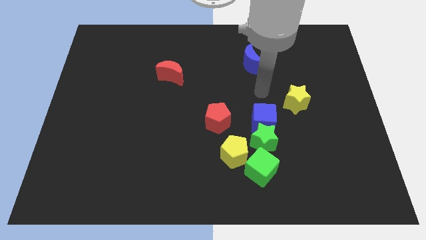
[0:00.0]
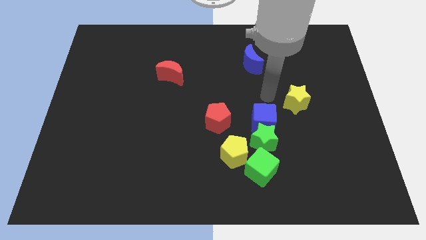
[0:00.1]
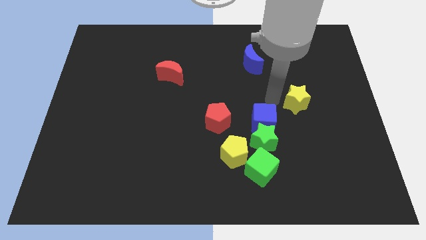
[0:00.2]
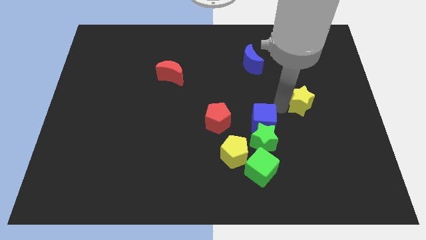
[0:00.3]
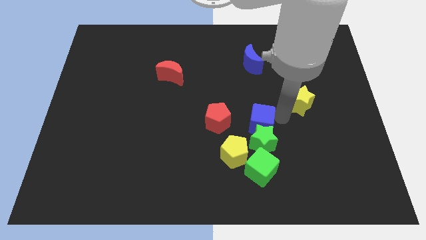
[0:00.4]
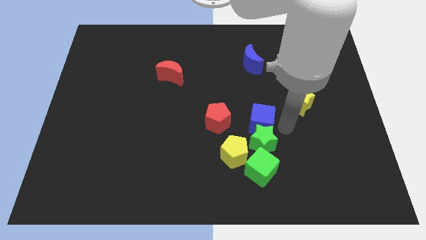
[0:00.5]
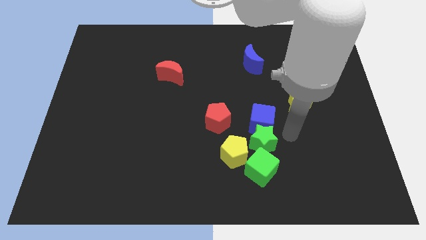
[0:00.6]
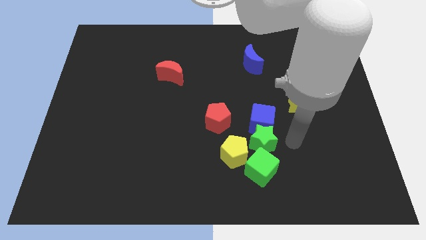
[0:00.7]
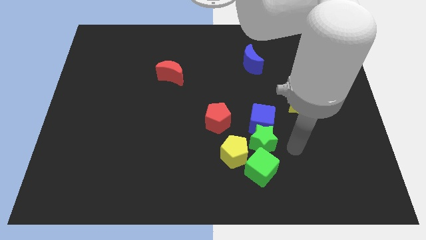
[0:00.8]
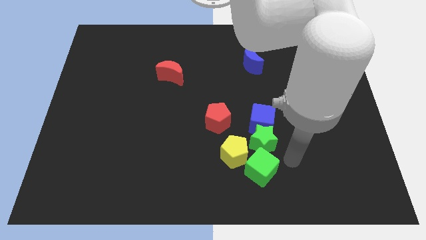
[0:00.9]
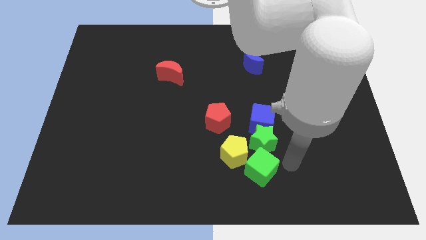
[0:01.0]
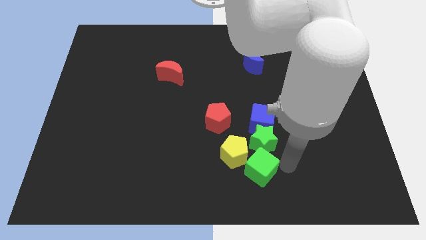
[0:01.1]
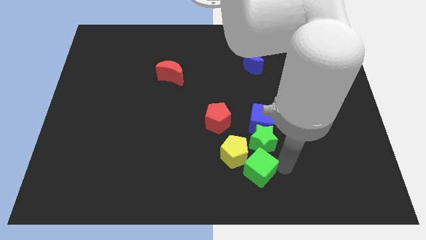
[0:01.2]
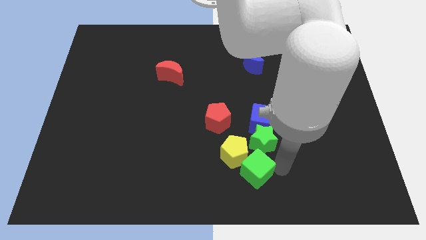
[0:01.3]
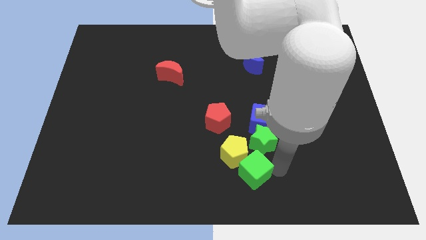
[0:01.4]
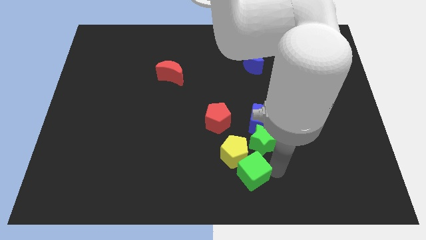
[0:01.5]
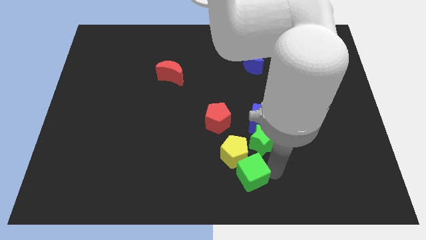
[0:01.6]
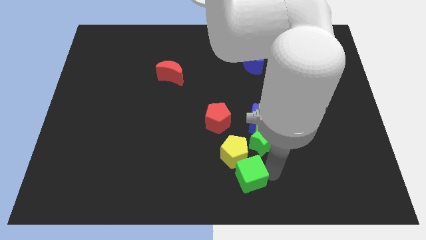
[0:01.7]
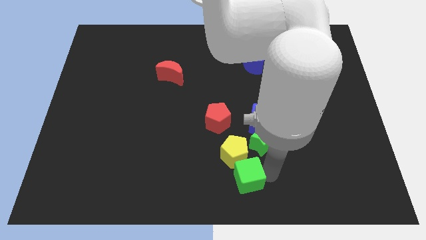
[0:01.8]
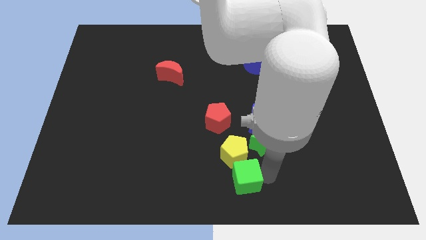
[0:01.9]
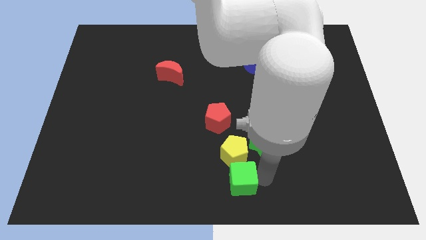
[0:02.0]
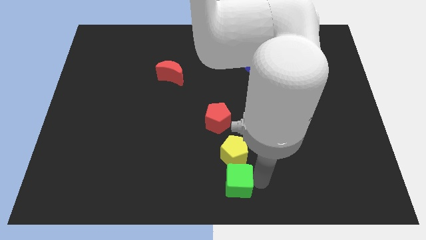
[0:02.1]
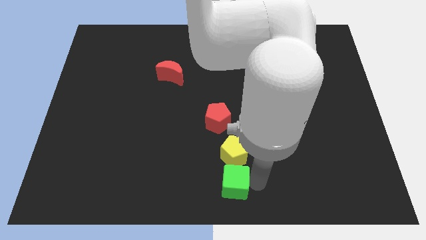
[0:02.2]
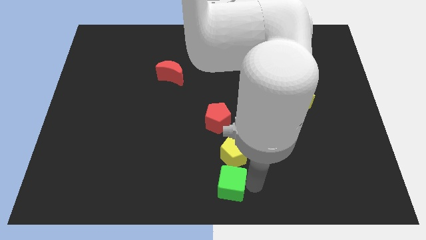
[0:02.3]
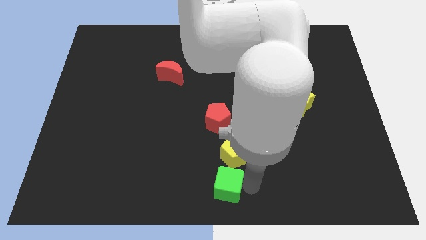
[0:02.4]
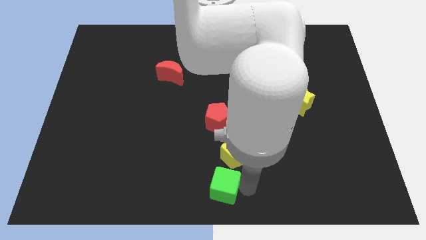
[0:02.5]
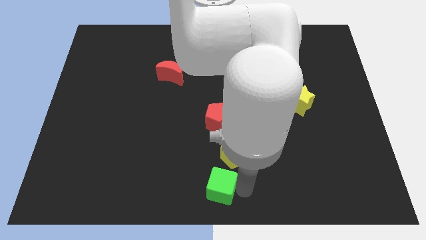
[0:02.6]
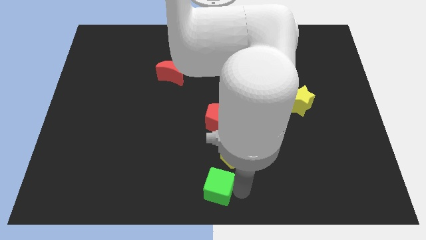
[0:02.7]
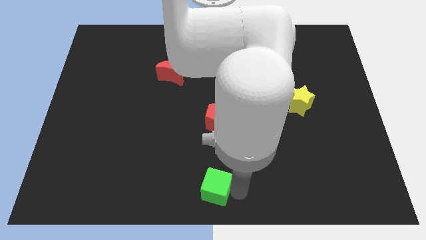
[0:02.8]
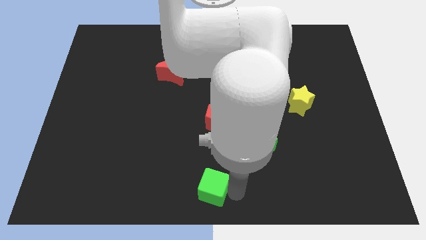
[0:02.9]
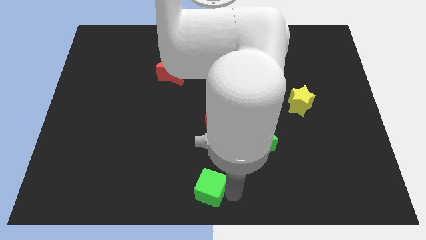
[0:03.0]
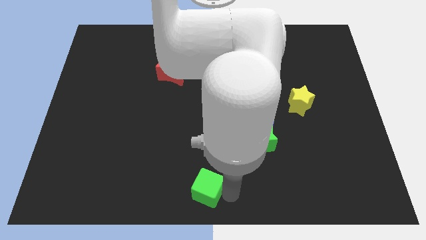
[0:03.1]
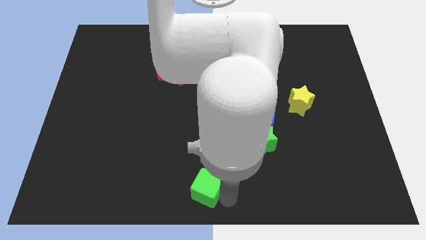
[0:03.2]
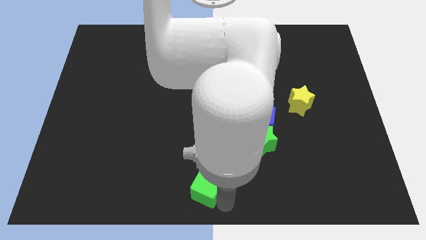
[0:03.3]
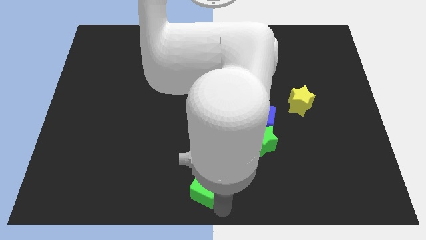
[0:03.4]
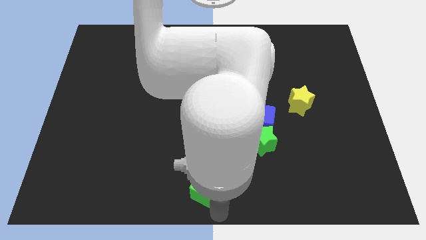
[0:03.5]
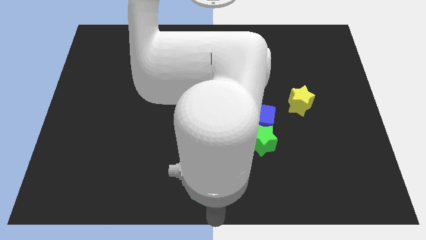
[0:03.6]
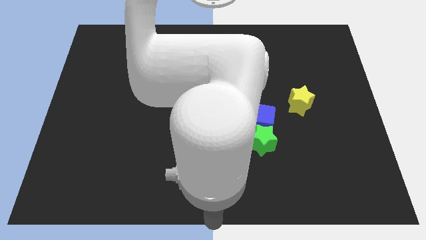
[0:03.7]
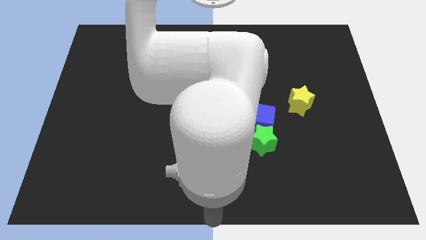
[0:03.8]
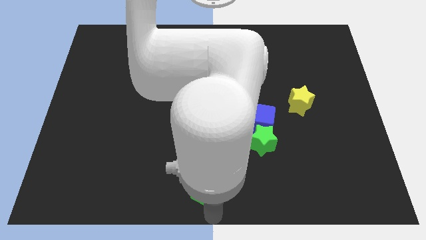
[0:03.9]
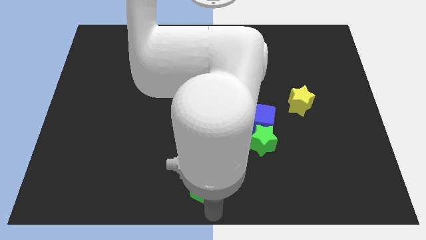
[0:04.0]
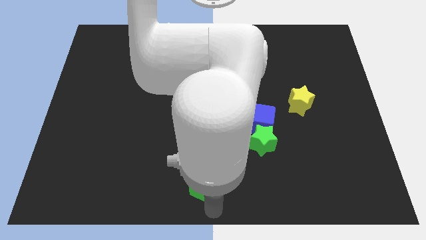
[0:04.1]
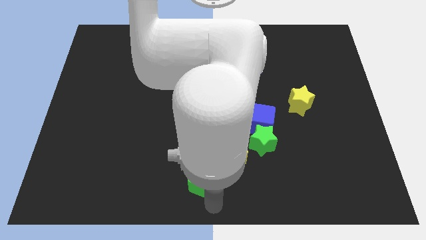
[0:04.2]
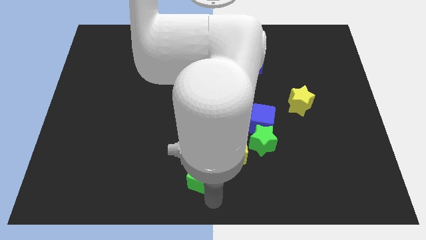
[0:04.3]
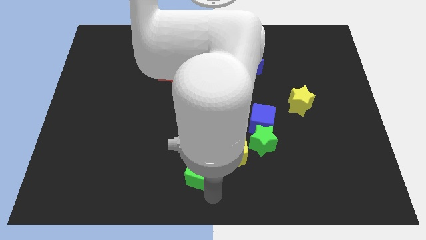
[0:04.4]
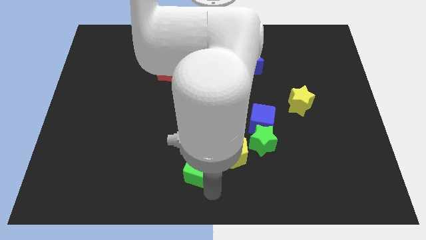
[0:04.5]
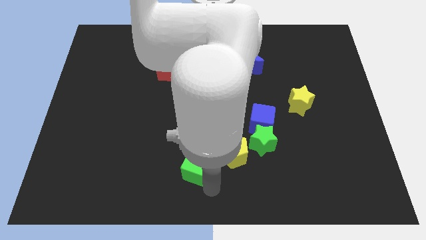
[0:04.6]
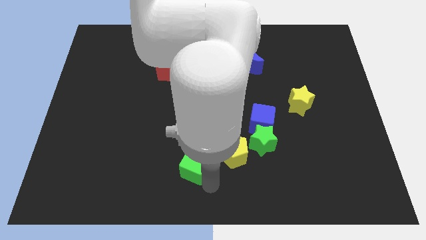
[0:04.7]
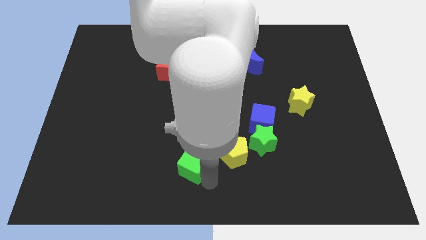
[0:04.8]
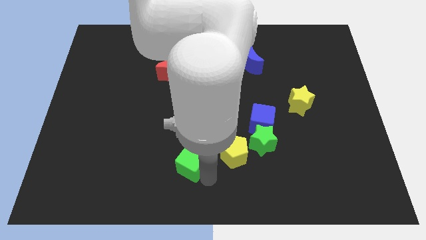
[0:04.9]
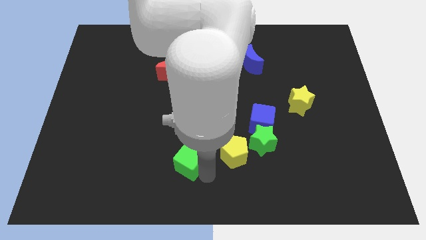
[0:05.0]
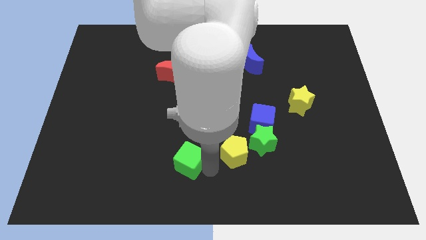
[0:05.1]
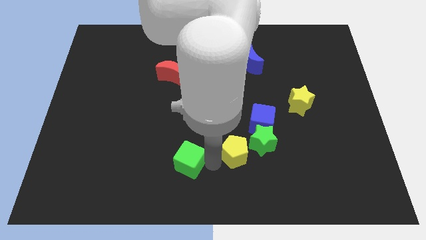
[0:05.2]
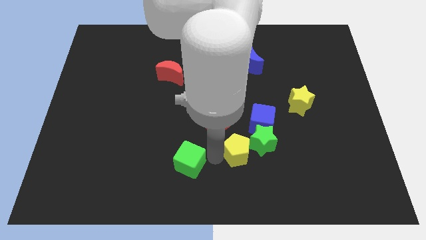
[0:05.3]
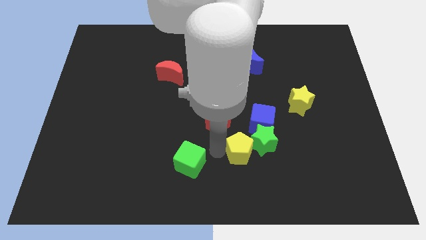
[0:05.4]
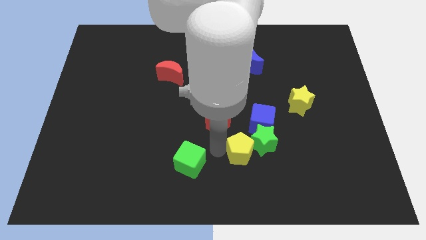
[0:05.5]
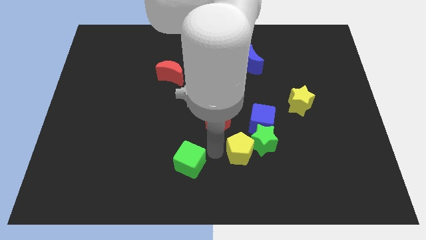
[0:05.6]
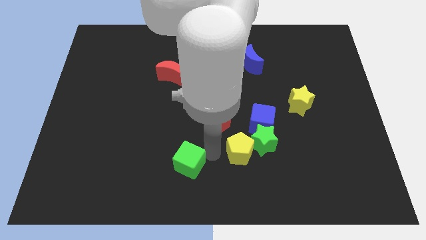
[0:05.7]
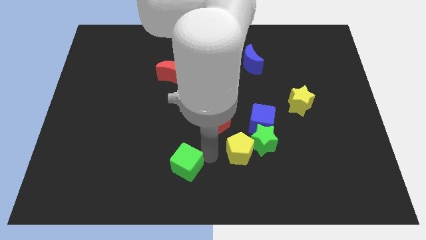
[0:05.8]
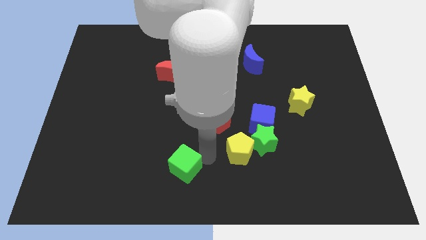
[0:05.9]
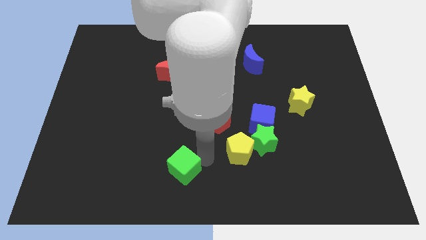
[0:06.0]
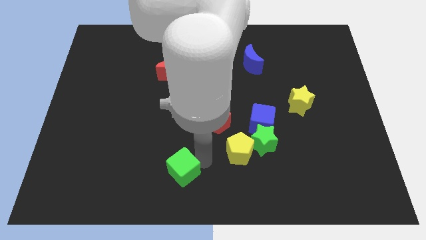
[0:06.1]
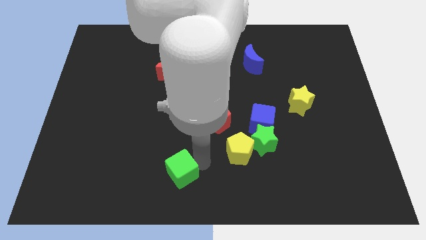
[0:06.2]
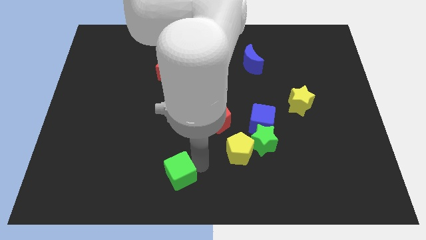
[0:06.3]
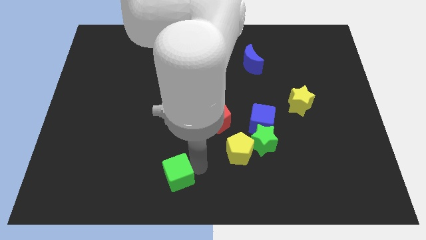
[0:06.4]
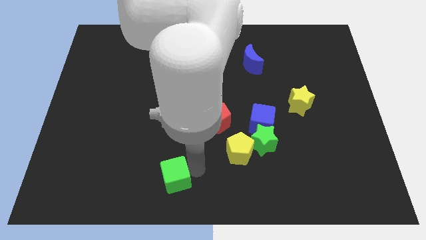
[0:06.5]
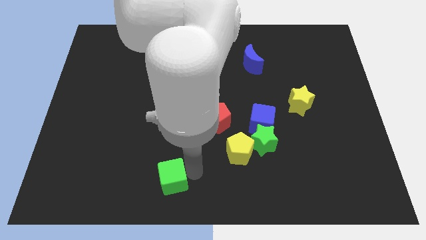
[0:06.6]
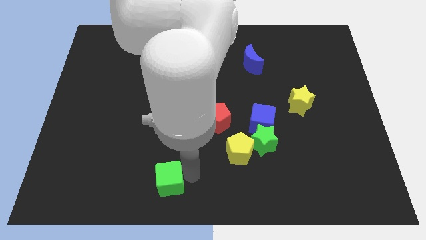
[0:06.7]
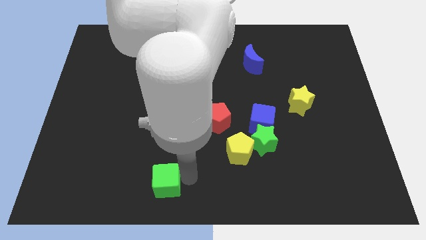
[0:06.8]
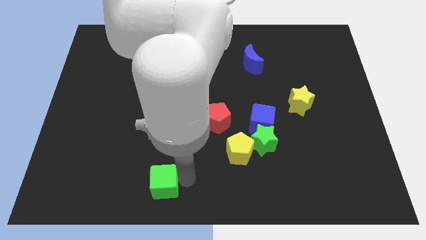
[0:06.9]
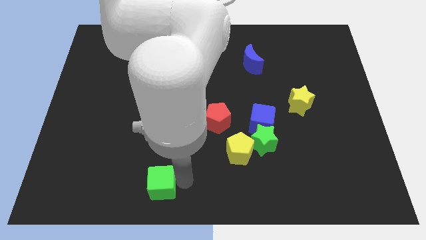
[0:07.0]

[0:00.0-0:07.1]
push the green cube to the left
